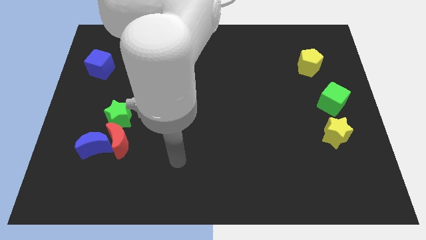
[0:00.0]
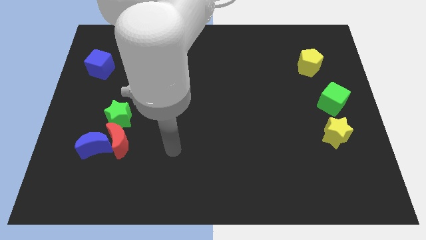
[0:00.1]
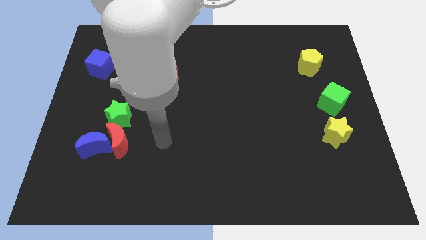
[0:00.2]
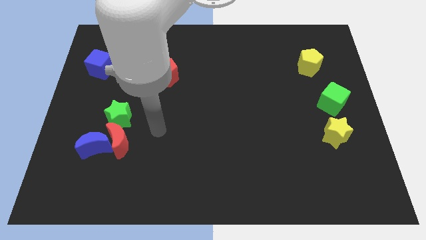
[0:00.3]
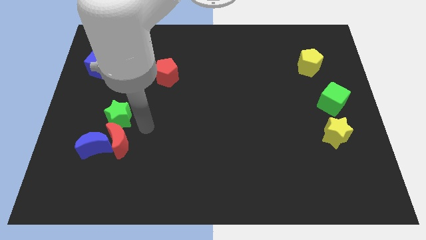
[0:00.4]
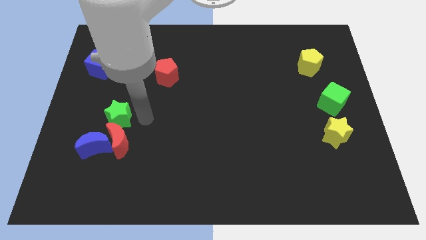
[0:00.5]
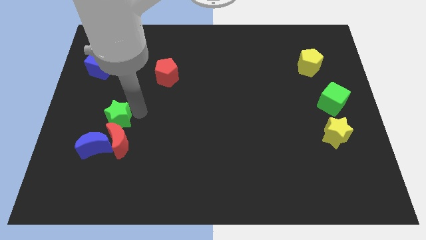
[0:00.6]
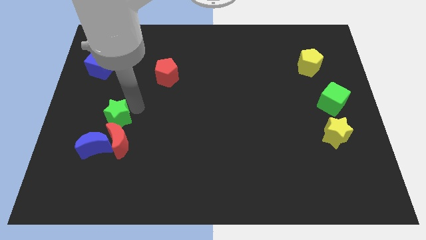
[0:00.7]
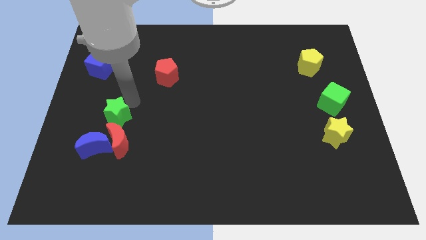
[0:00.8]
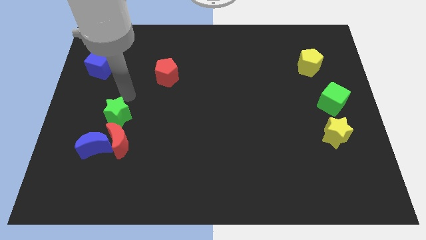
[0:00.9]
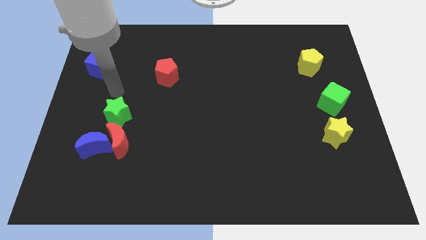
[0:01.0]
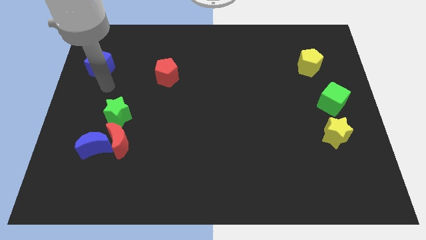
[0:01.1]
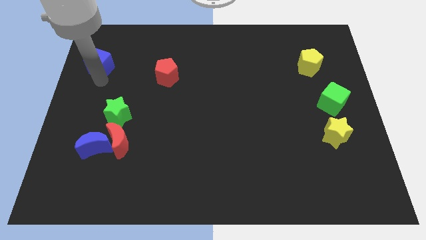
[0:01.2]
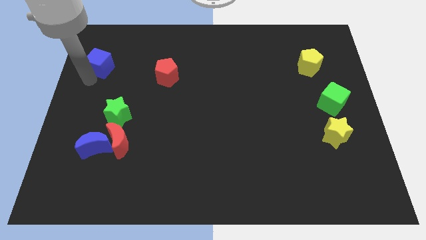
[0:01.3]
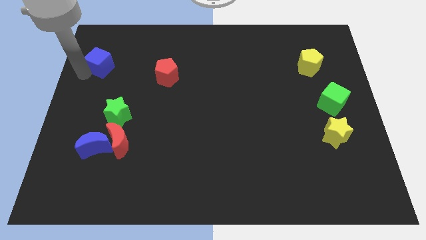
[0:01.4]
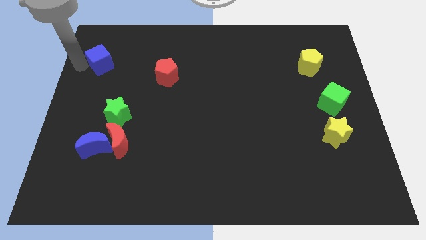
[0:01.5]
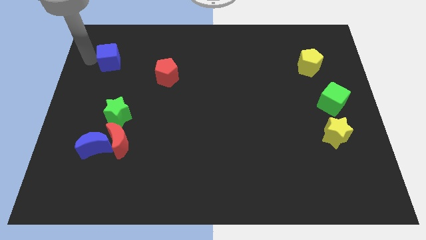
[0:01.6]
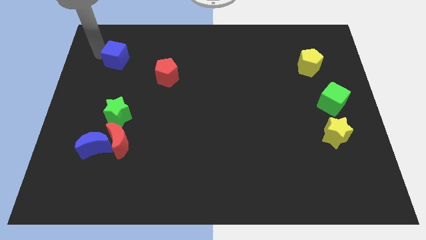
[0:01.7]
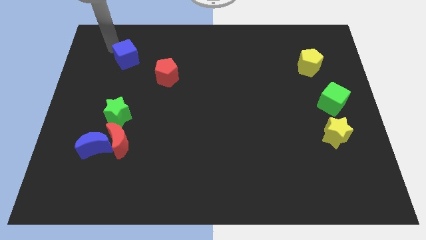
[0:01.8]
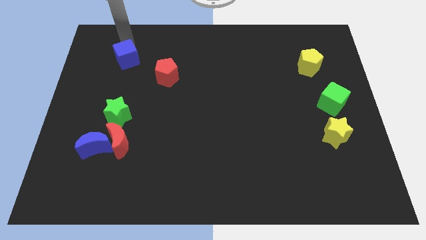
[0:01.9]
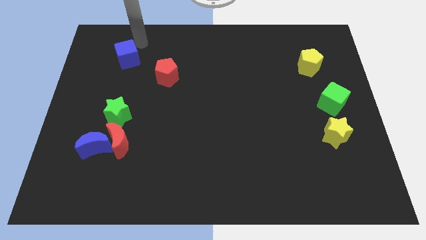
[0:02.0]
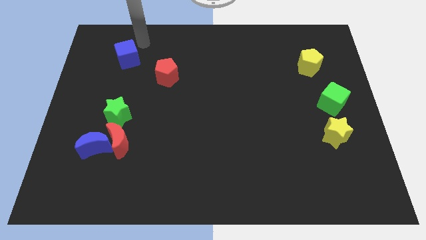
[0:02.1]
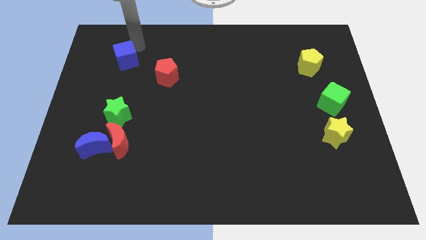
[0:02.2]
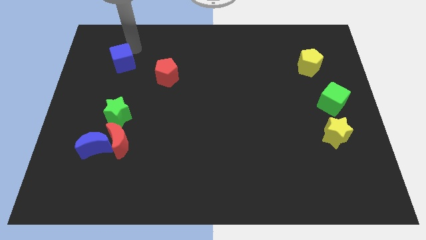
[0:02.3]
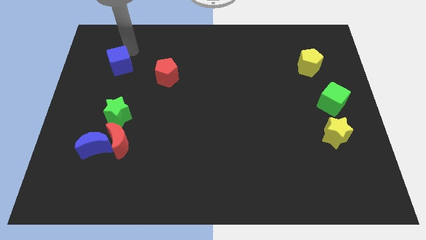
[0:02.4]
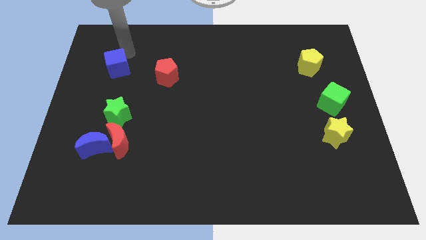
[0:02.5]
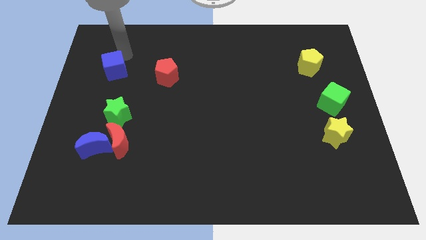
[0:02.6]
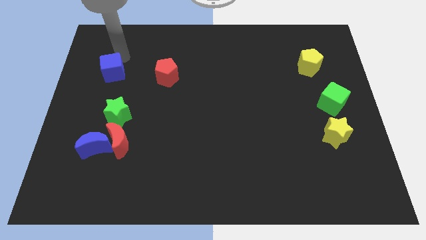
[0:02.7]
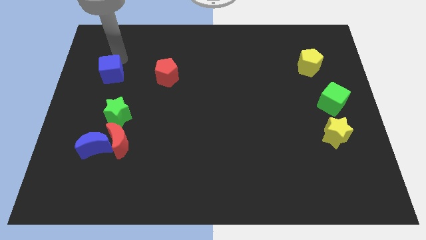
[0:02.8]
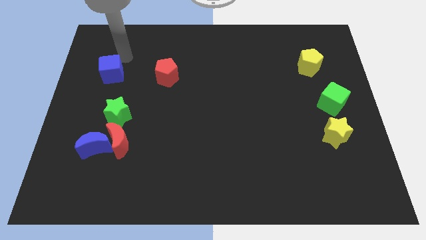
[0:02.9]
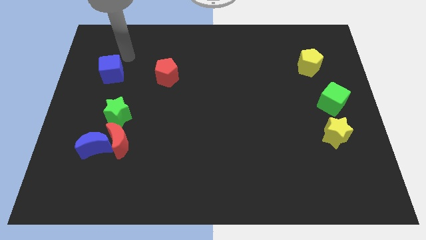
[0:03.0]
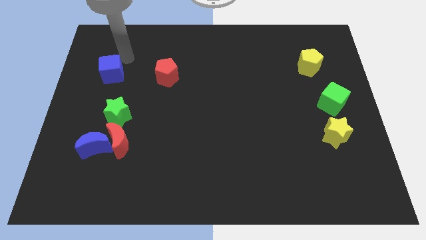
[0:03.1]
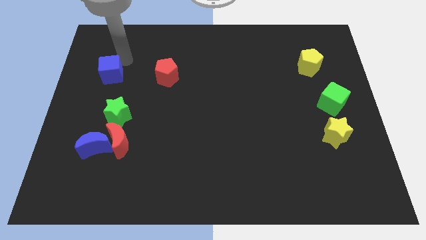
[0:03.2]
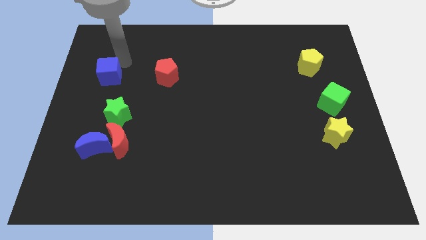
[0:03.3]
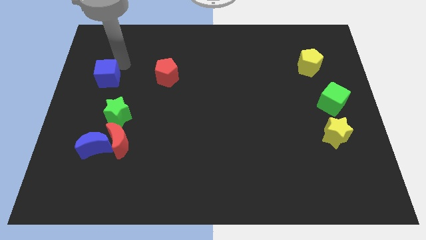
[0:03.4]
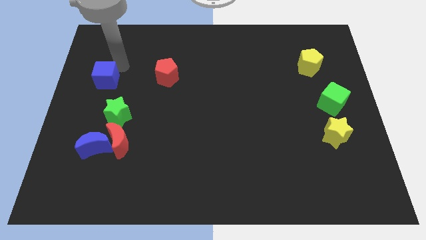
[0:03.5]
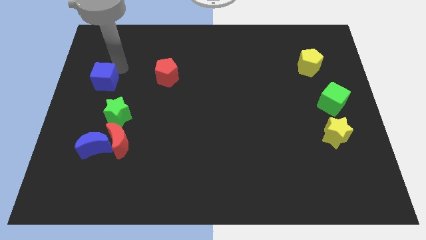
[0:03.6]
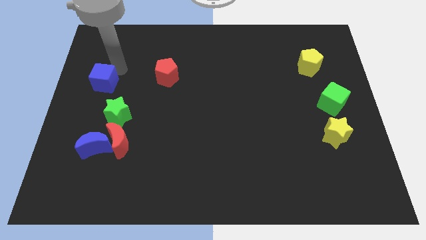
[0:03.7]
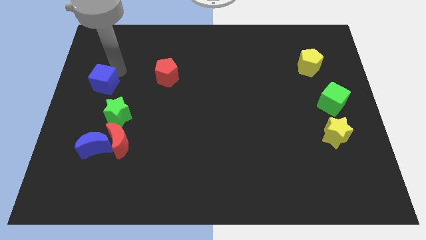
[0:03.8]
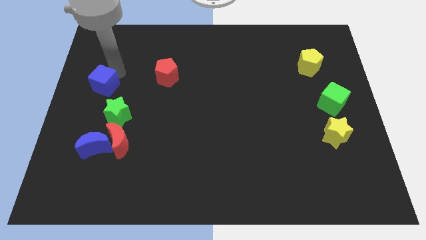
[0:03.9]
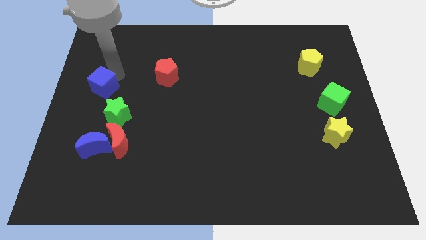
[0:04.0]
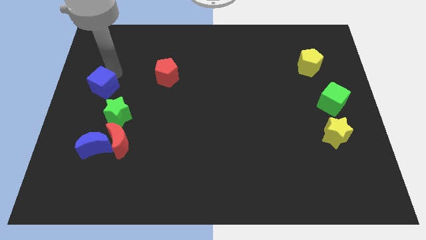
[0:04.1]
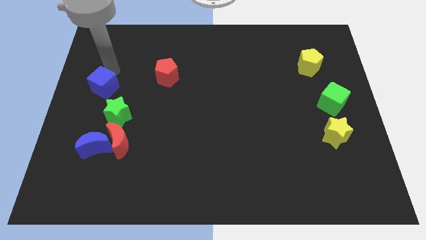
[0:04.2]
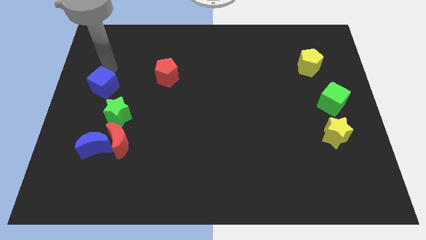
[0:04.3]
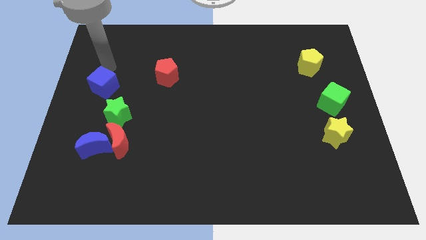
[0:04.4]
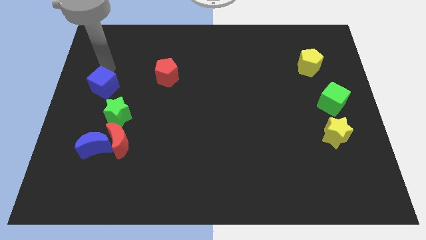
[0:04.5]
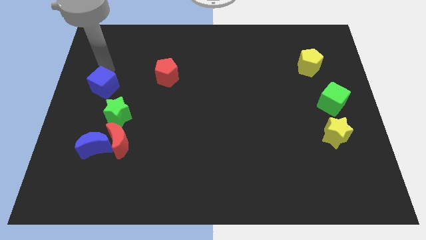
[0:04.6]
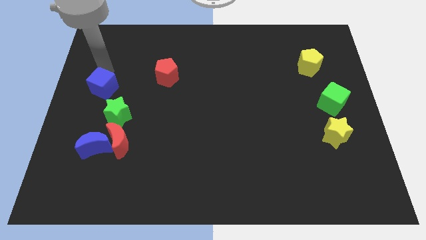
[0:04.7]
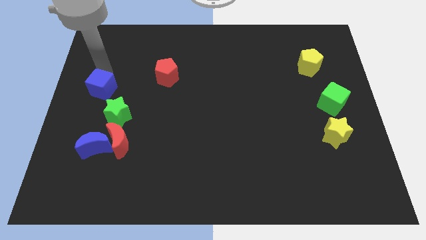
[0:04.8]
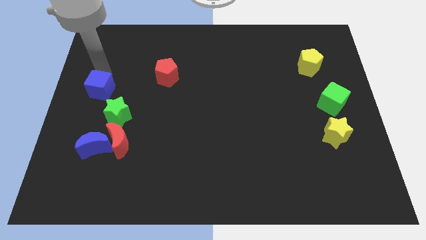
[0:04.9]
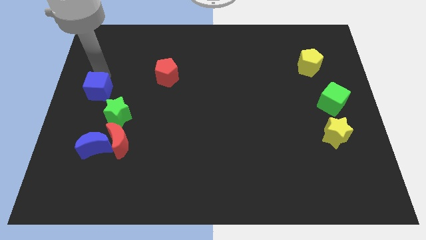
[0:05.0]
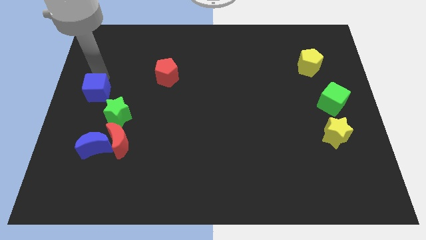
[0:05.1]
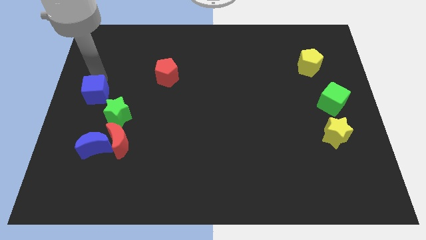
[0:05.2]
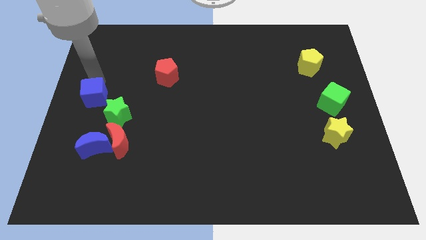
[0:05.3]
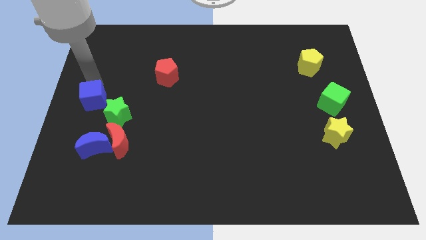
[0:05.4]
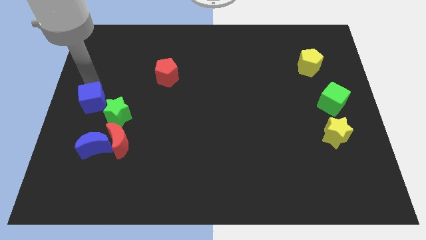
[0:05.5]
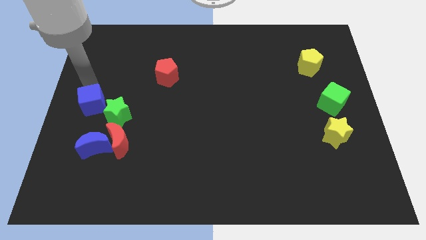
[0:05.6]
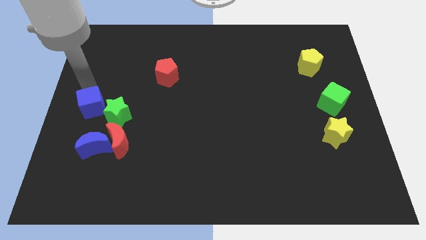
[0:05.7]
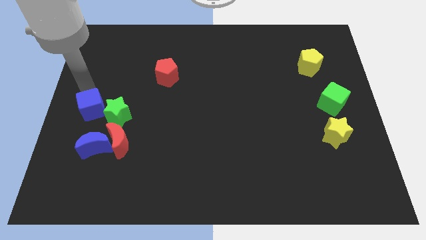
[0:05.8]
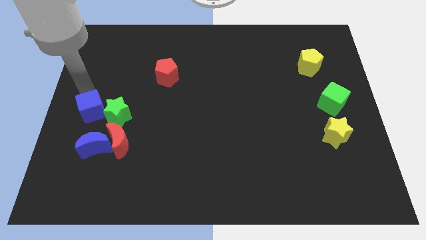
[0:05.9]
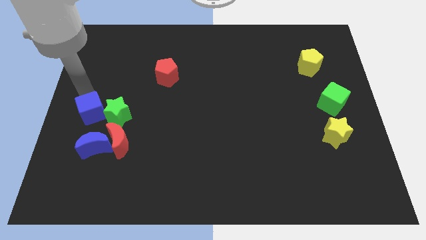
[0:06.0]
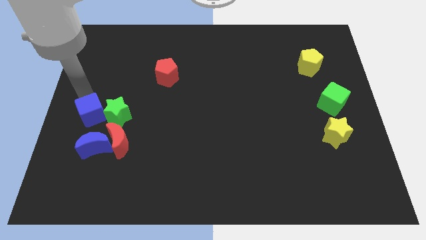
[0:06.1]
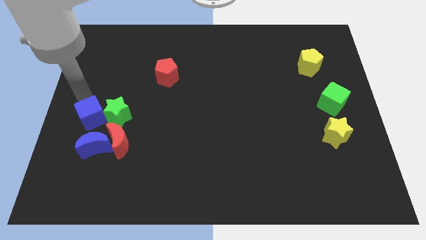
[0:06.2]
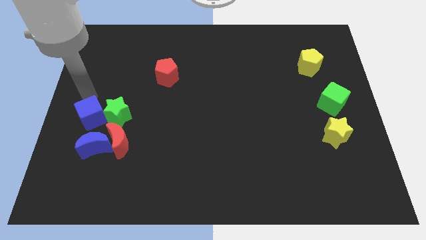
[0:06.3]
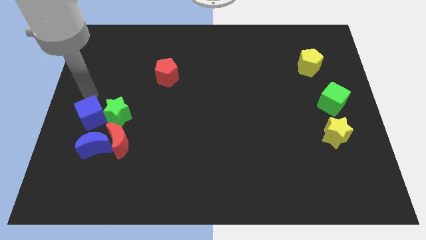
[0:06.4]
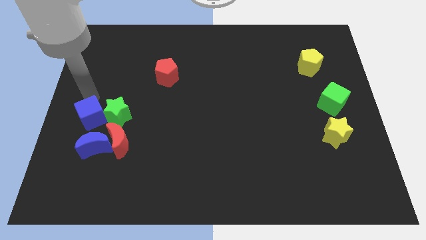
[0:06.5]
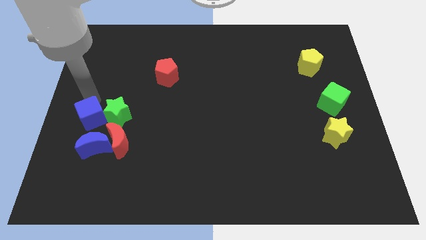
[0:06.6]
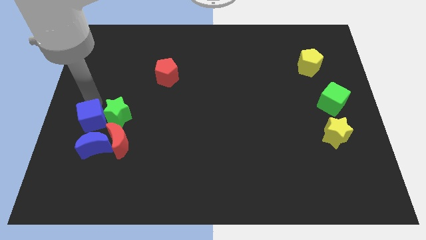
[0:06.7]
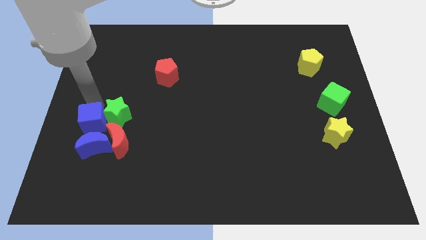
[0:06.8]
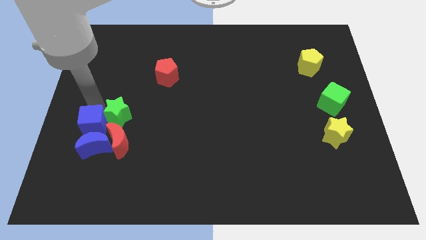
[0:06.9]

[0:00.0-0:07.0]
put the blue cube towards the blue moon

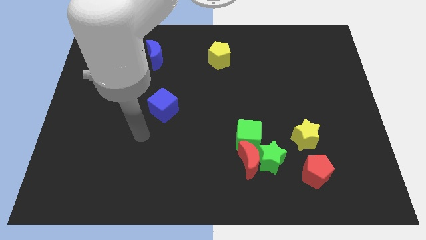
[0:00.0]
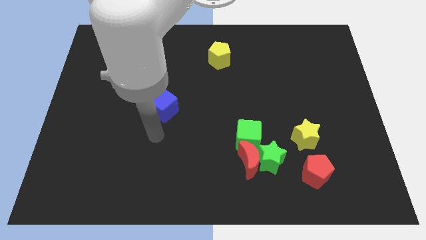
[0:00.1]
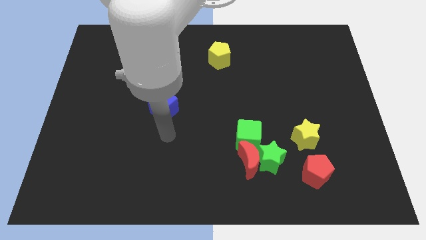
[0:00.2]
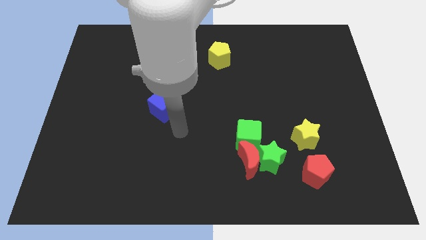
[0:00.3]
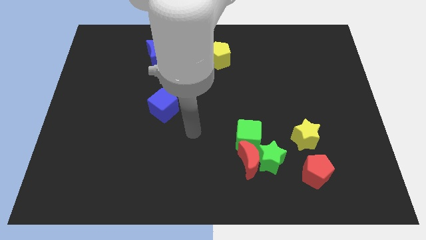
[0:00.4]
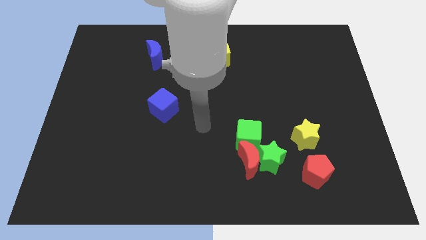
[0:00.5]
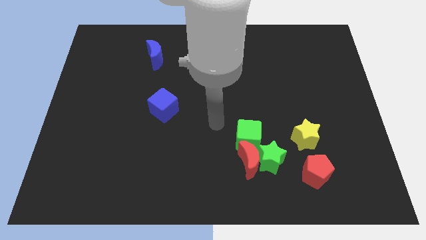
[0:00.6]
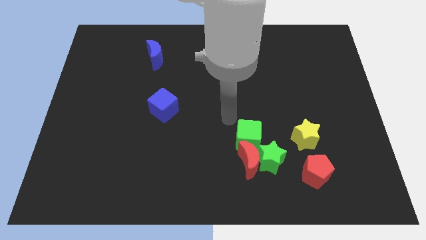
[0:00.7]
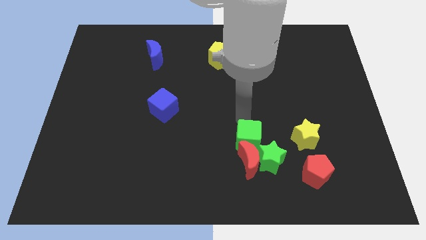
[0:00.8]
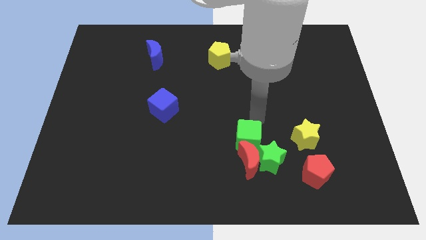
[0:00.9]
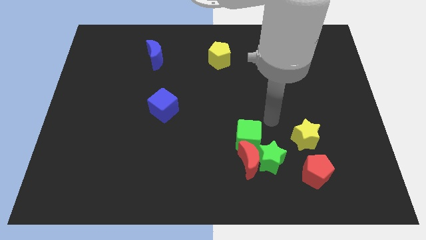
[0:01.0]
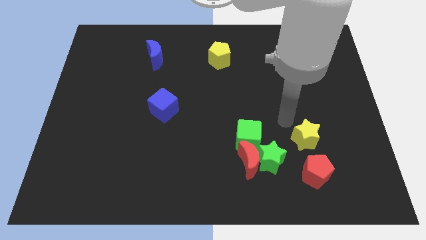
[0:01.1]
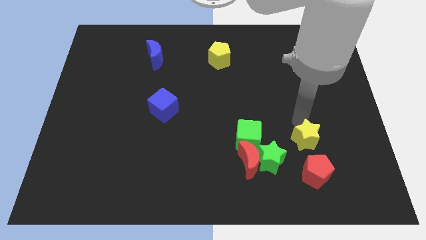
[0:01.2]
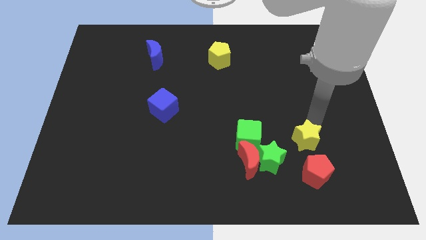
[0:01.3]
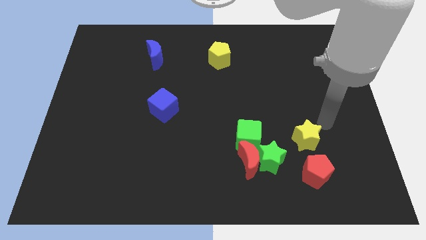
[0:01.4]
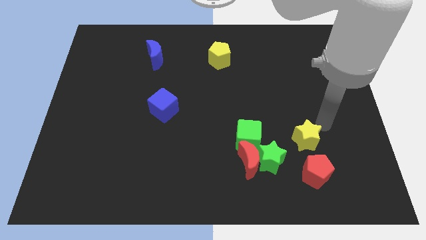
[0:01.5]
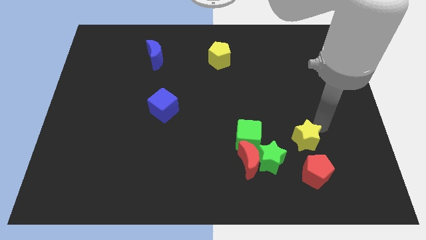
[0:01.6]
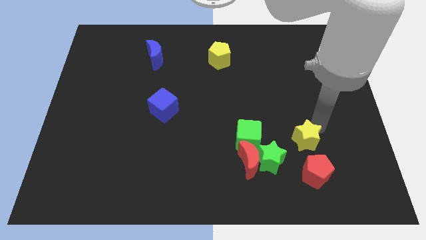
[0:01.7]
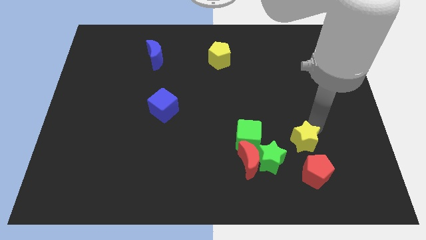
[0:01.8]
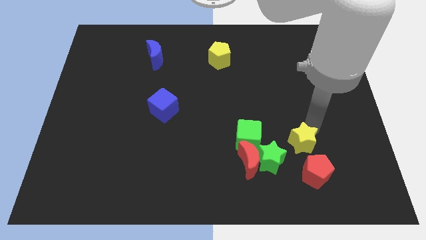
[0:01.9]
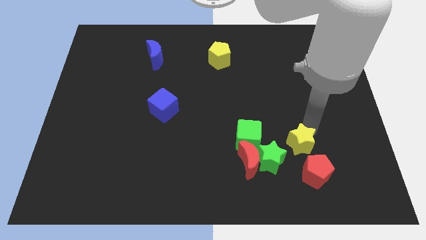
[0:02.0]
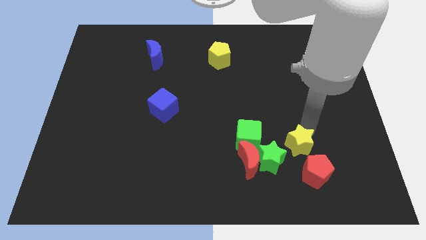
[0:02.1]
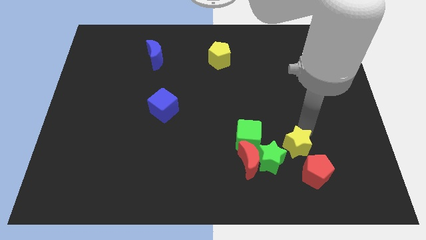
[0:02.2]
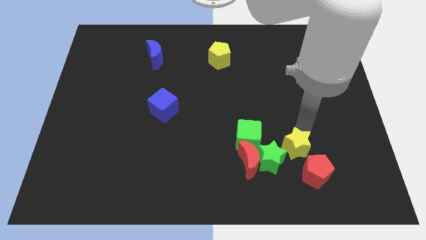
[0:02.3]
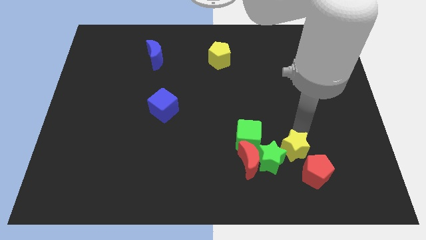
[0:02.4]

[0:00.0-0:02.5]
put the yellow star towards the green star
